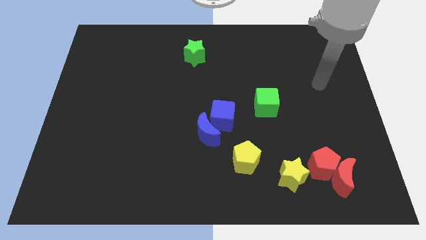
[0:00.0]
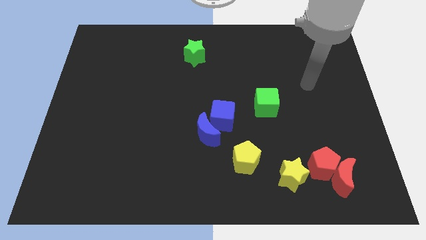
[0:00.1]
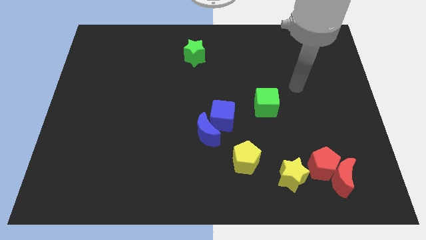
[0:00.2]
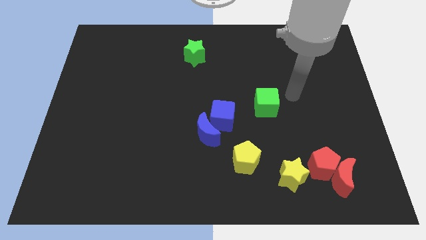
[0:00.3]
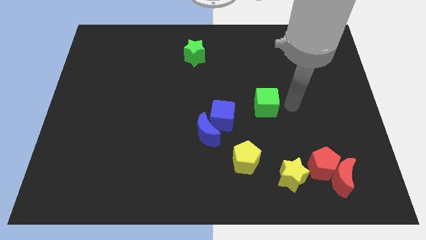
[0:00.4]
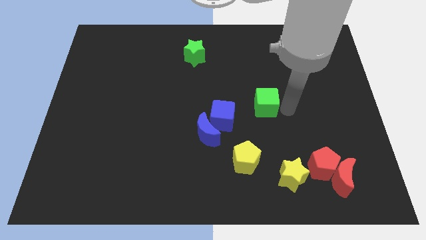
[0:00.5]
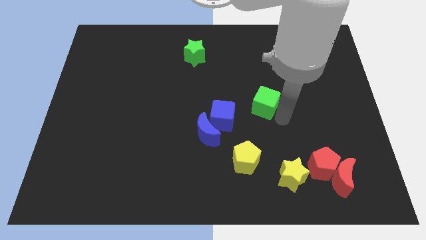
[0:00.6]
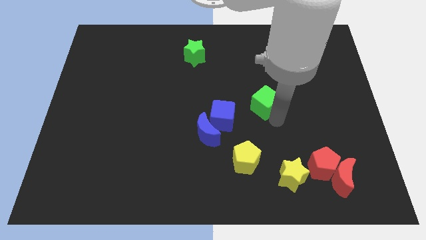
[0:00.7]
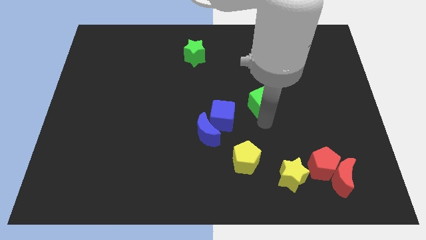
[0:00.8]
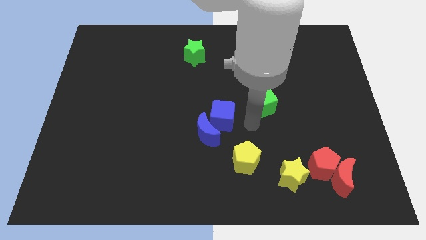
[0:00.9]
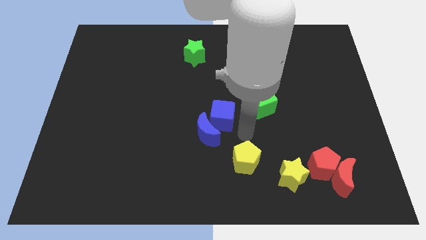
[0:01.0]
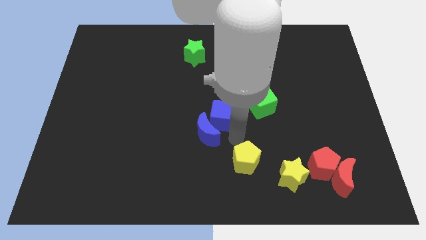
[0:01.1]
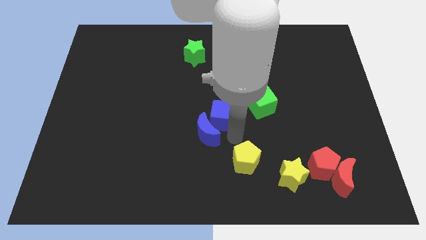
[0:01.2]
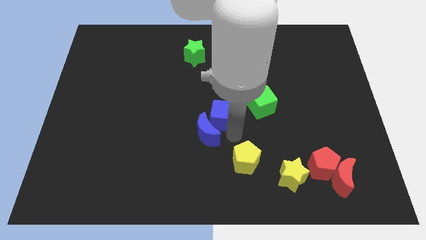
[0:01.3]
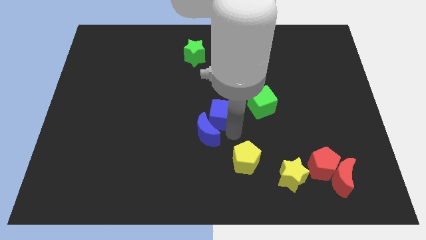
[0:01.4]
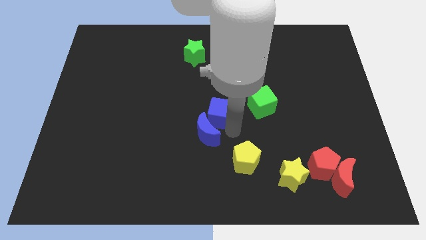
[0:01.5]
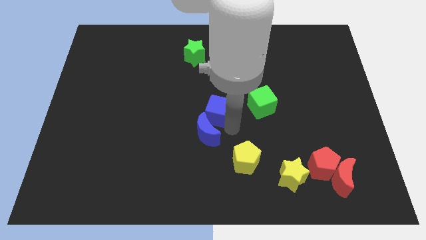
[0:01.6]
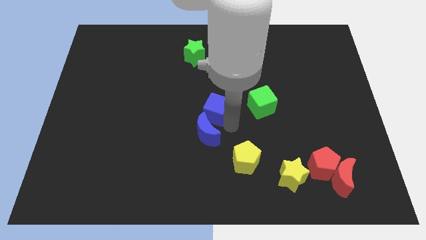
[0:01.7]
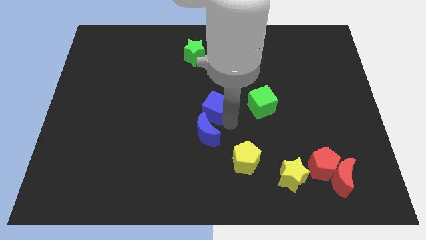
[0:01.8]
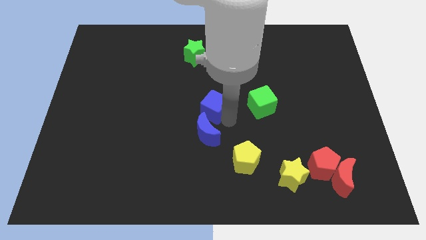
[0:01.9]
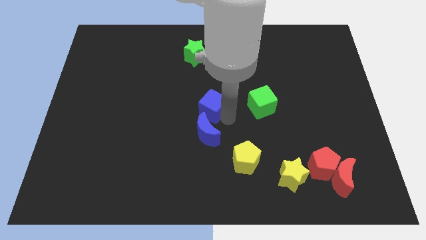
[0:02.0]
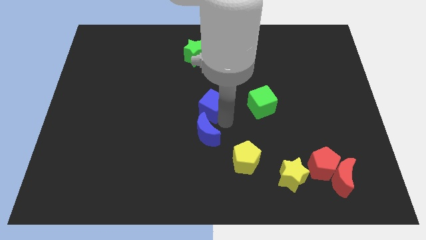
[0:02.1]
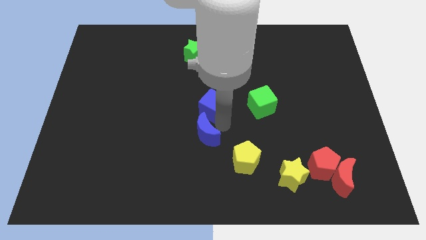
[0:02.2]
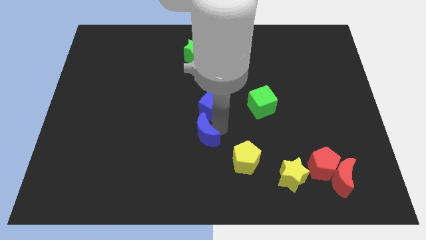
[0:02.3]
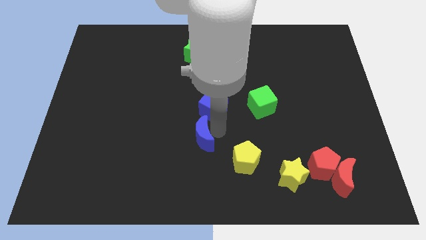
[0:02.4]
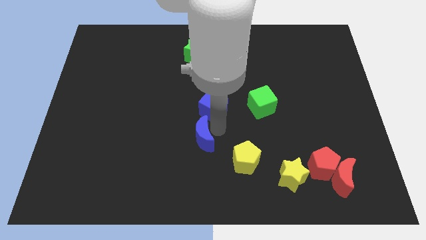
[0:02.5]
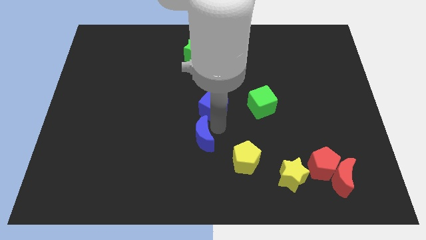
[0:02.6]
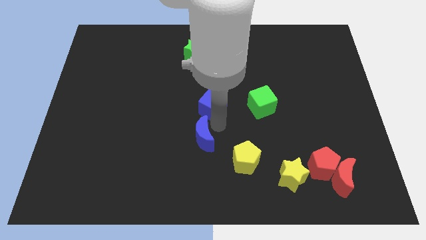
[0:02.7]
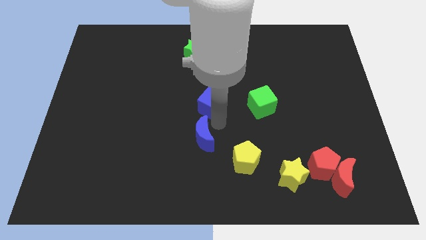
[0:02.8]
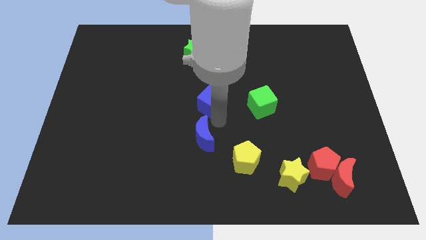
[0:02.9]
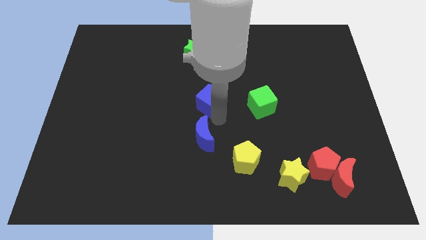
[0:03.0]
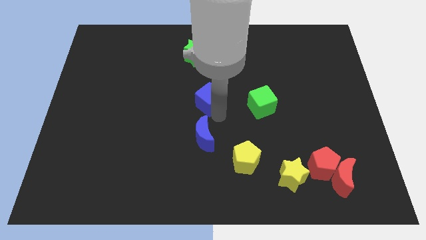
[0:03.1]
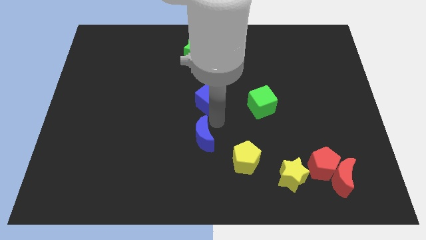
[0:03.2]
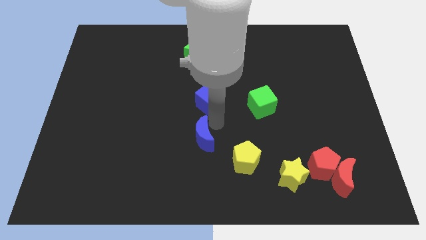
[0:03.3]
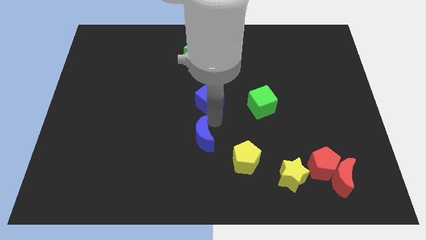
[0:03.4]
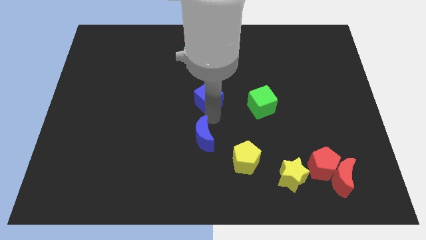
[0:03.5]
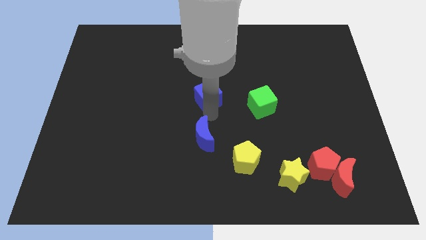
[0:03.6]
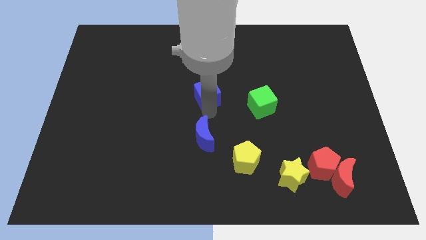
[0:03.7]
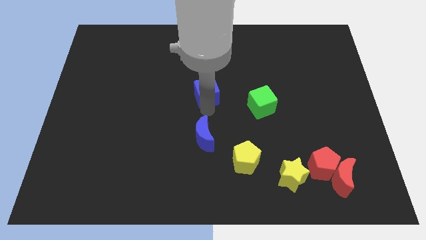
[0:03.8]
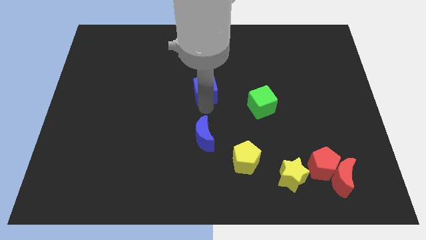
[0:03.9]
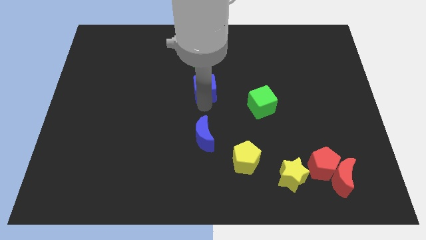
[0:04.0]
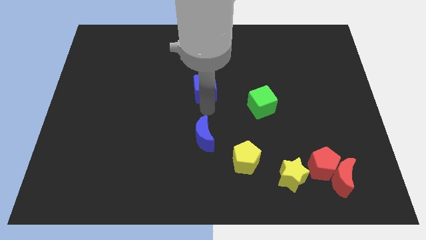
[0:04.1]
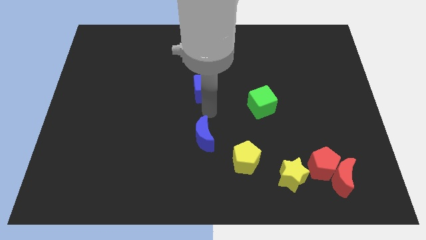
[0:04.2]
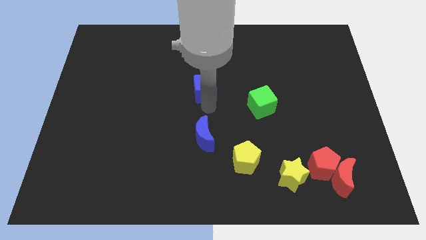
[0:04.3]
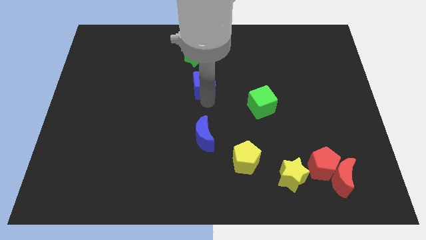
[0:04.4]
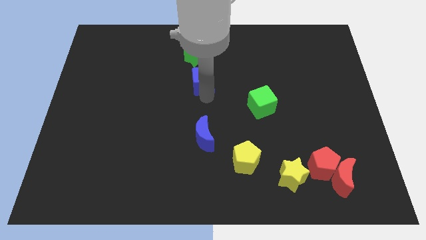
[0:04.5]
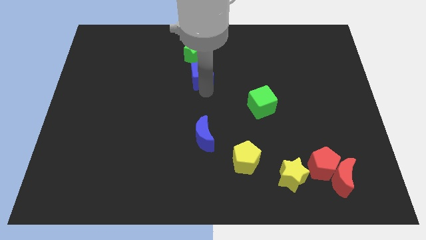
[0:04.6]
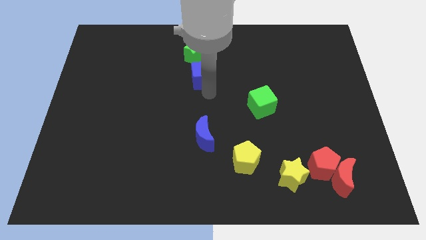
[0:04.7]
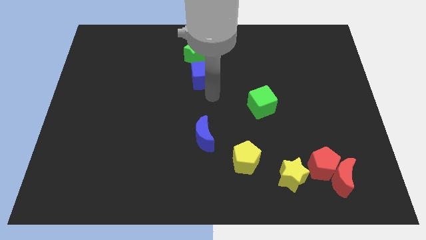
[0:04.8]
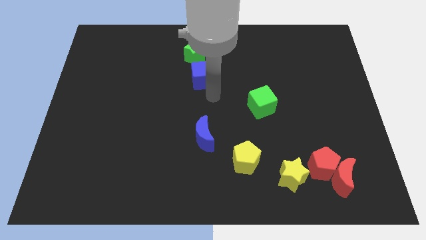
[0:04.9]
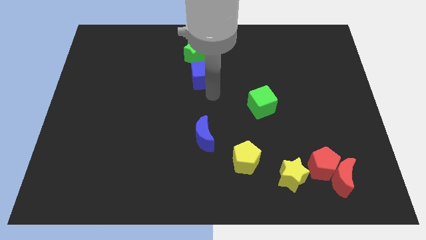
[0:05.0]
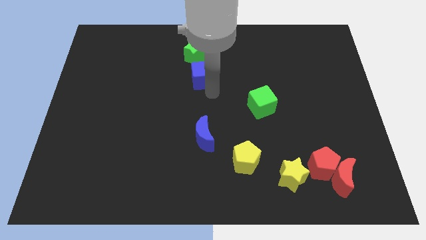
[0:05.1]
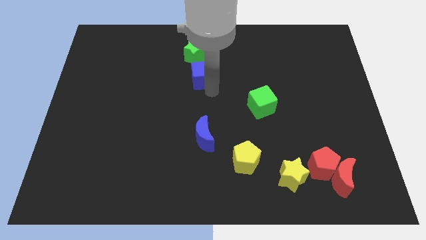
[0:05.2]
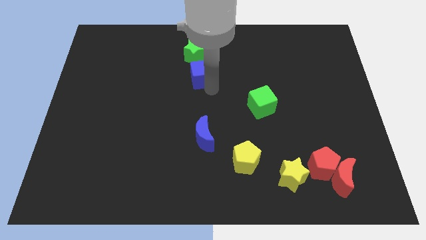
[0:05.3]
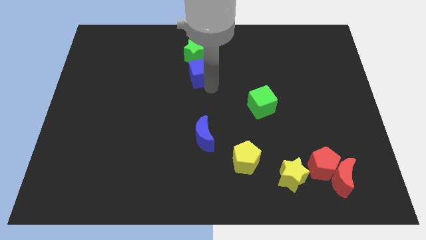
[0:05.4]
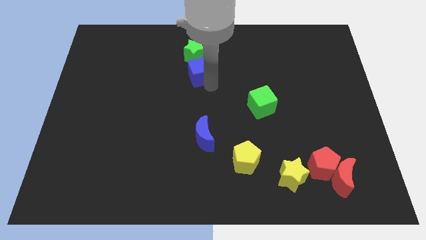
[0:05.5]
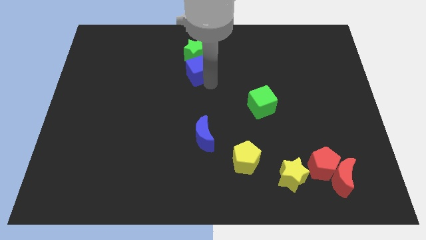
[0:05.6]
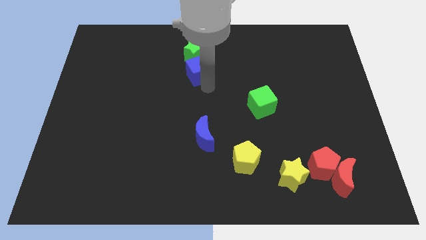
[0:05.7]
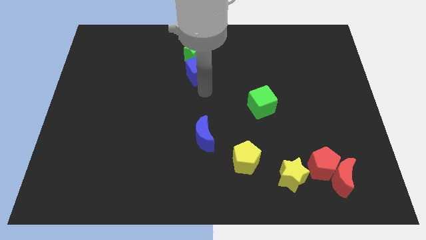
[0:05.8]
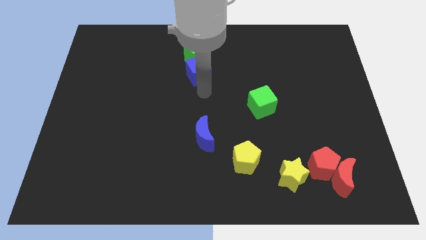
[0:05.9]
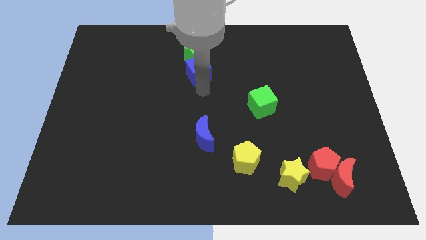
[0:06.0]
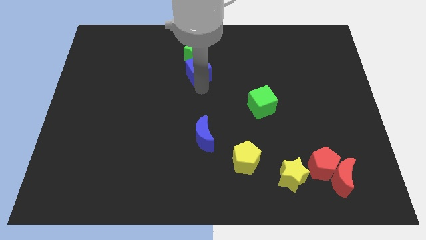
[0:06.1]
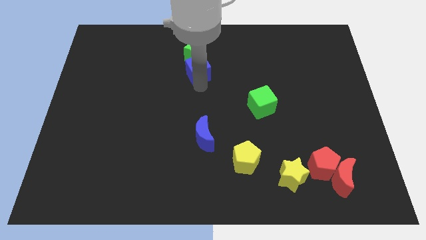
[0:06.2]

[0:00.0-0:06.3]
push the blue cube to the green star
